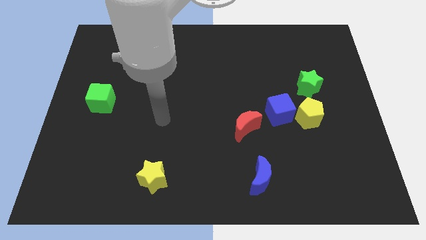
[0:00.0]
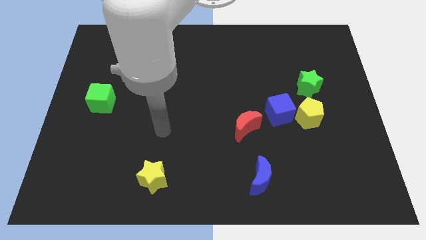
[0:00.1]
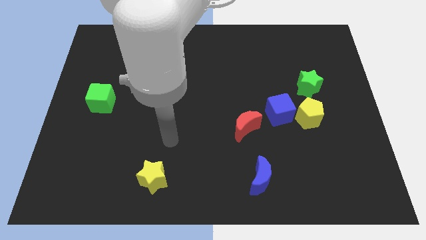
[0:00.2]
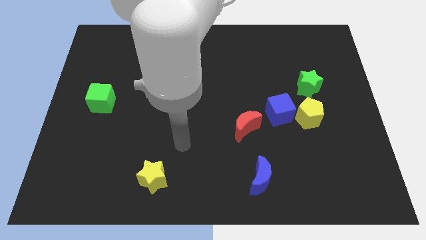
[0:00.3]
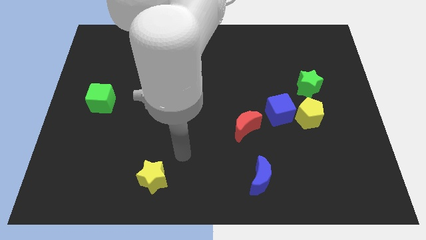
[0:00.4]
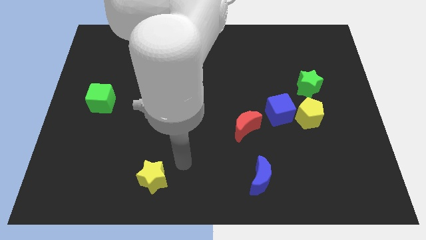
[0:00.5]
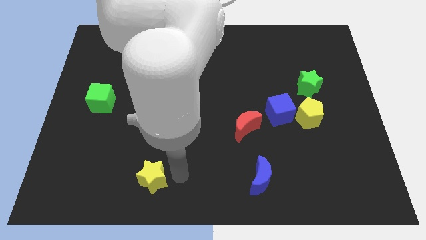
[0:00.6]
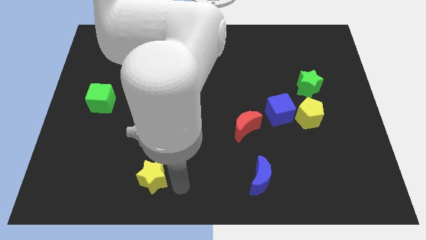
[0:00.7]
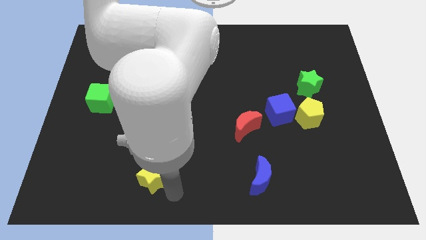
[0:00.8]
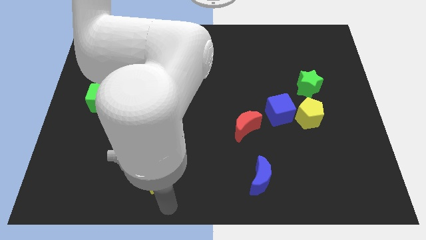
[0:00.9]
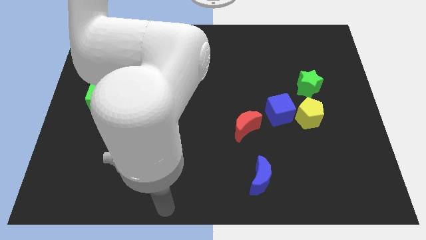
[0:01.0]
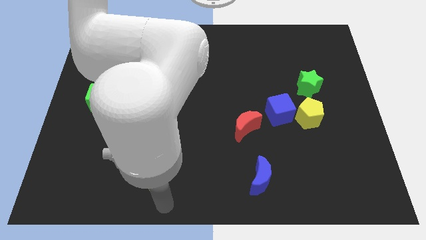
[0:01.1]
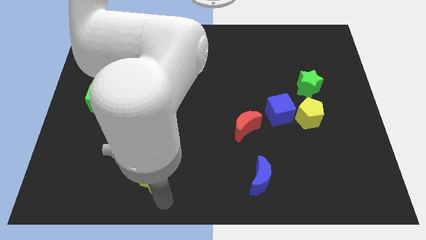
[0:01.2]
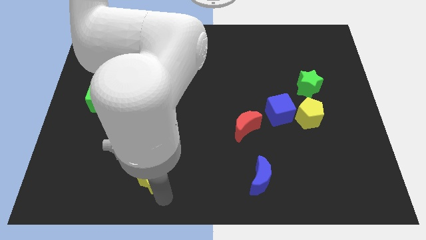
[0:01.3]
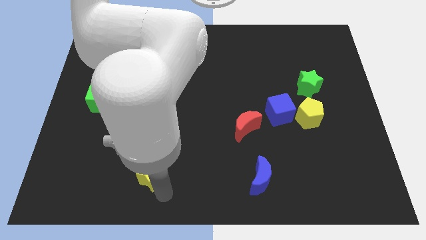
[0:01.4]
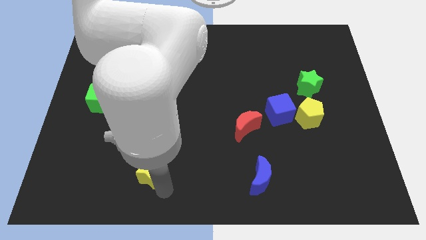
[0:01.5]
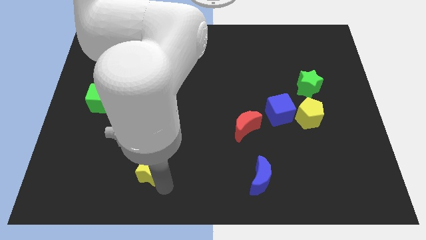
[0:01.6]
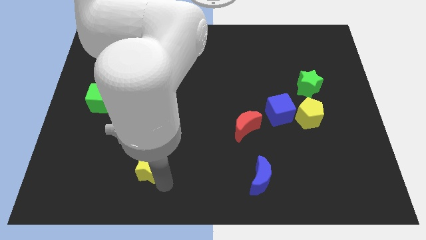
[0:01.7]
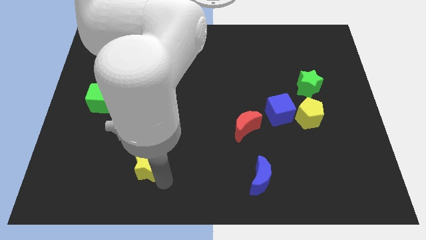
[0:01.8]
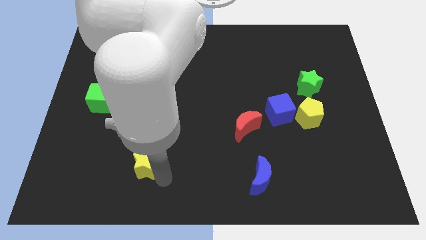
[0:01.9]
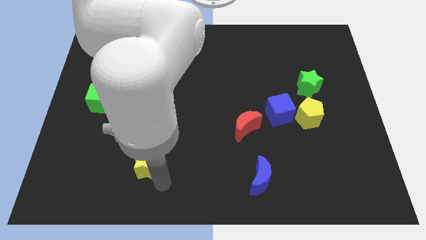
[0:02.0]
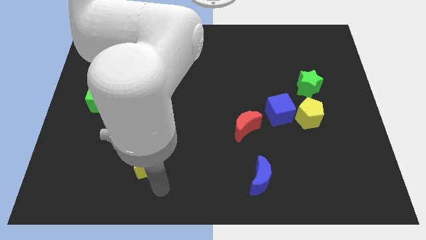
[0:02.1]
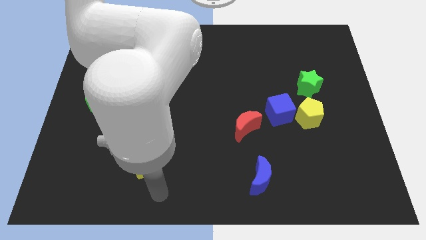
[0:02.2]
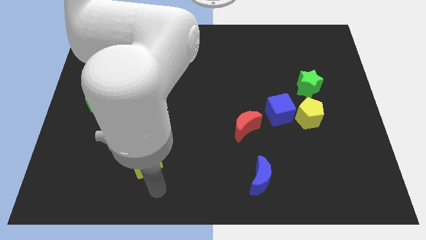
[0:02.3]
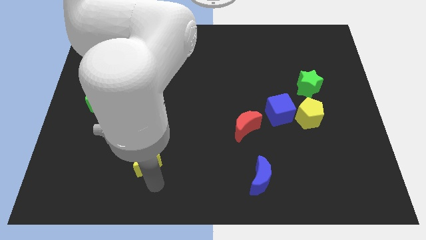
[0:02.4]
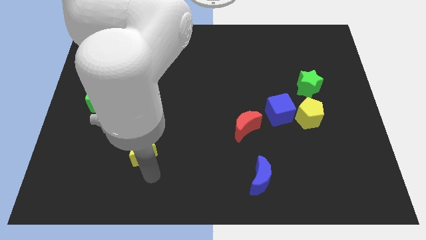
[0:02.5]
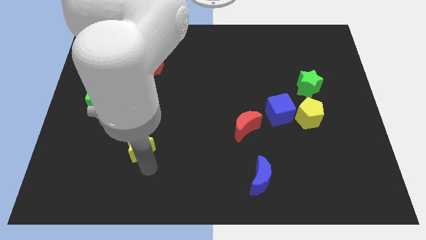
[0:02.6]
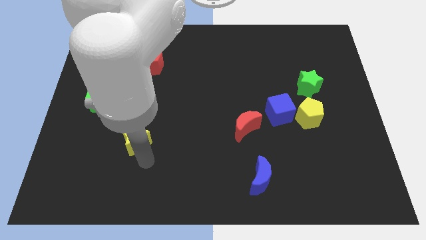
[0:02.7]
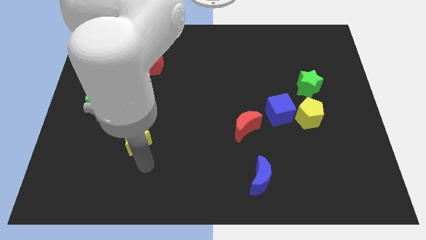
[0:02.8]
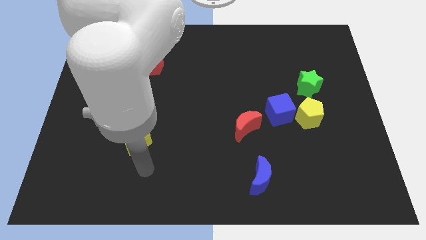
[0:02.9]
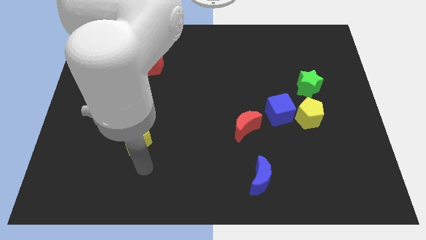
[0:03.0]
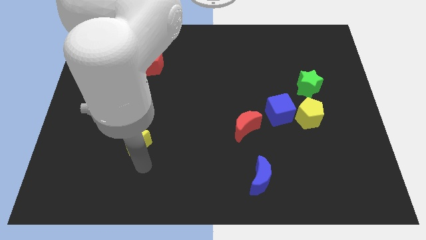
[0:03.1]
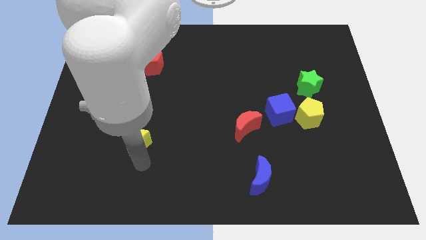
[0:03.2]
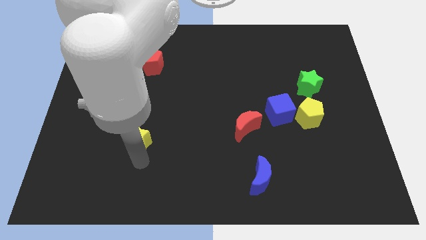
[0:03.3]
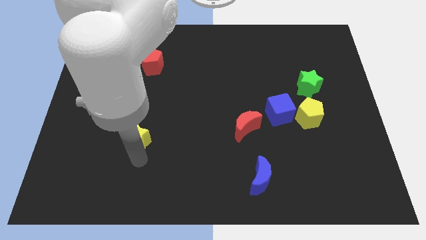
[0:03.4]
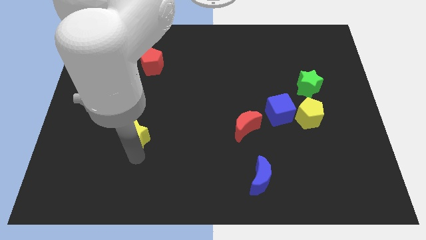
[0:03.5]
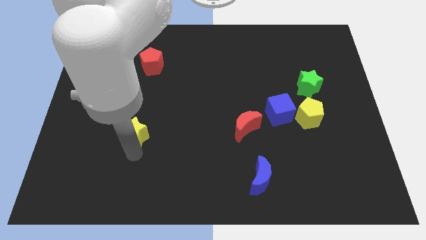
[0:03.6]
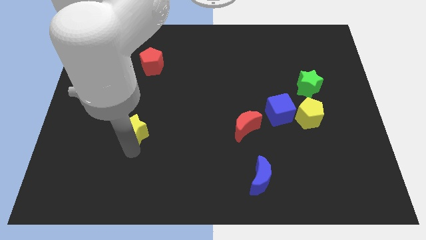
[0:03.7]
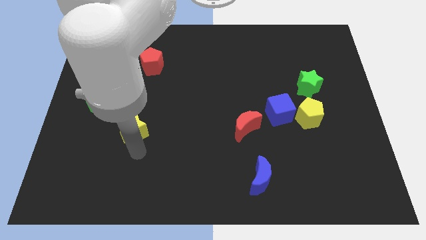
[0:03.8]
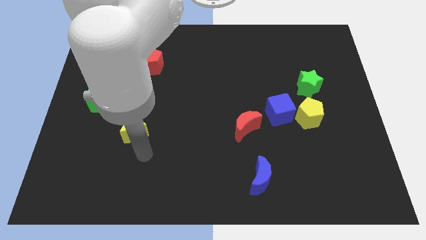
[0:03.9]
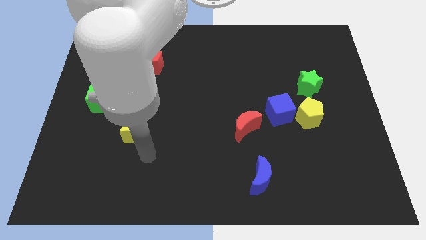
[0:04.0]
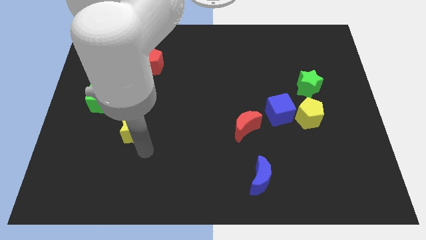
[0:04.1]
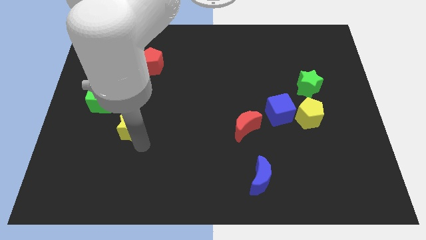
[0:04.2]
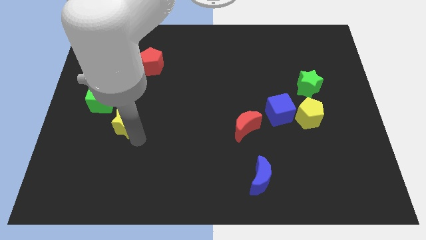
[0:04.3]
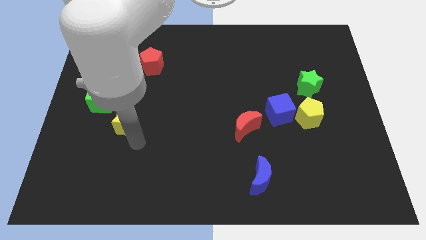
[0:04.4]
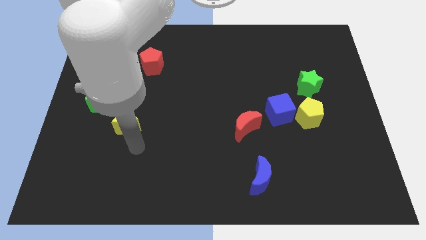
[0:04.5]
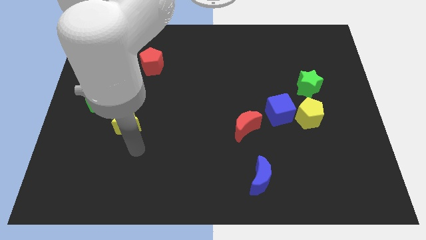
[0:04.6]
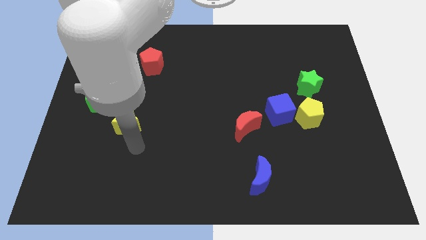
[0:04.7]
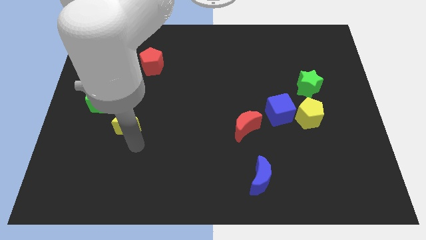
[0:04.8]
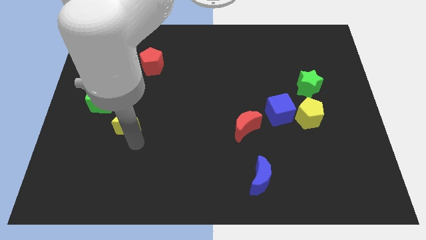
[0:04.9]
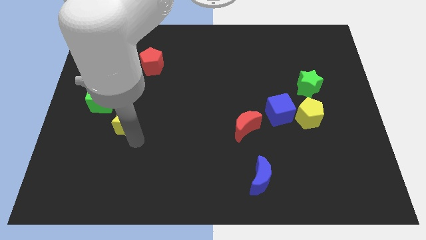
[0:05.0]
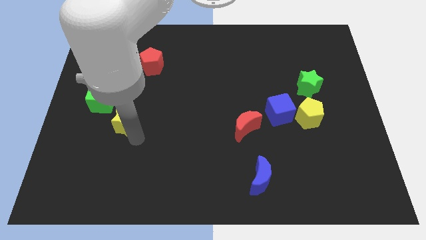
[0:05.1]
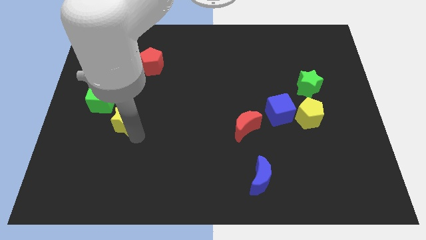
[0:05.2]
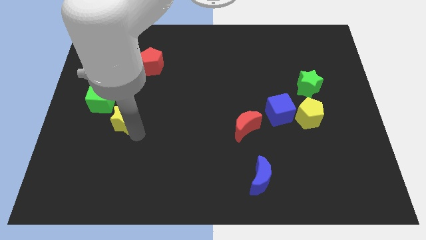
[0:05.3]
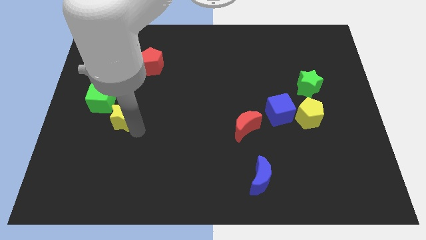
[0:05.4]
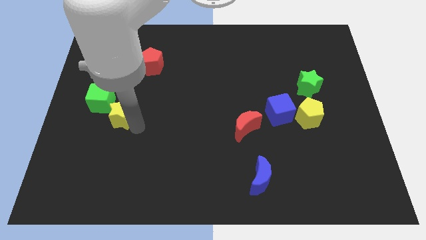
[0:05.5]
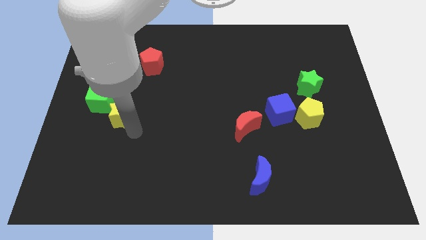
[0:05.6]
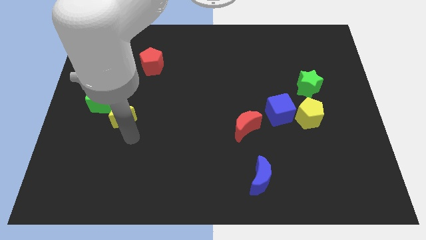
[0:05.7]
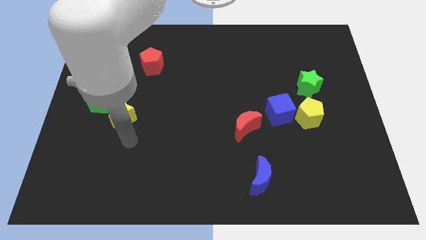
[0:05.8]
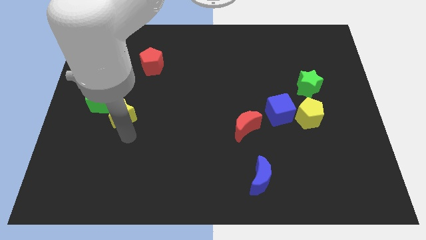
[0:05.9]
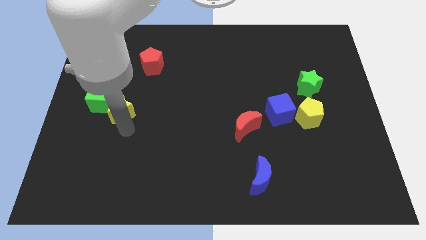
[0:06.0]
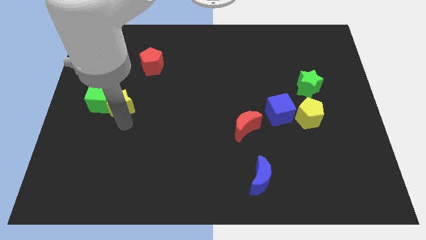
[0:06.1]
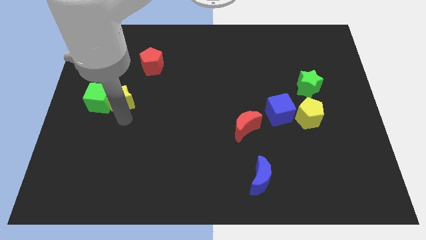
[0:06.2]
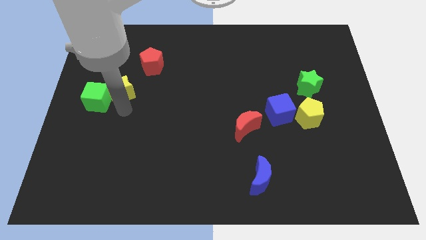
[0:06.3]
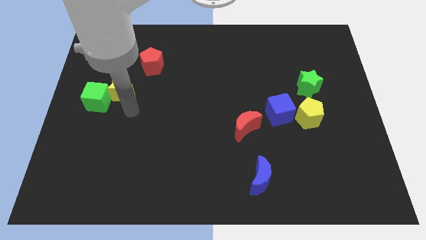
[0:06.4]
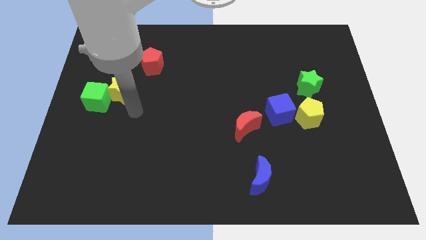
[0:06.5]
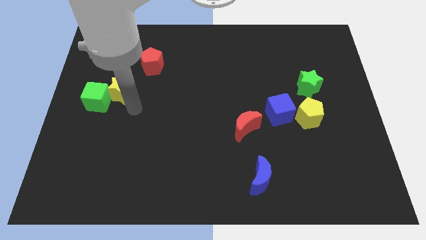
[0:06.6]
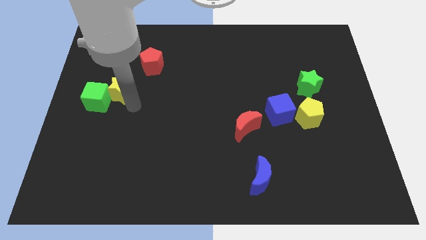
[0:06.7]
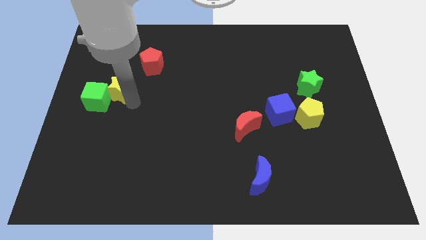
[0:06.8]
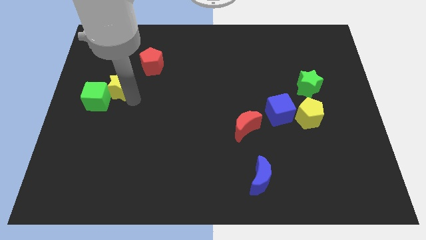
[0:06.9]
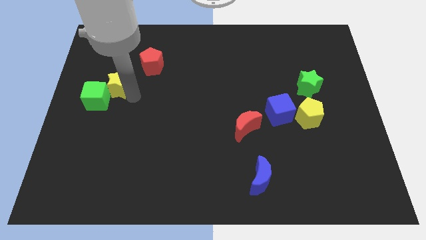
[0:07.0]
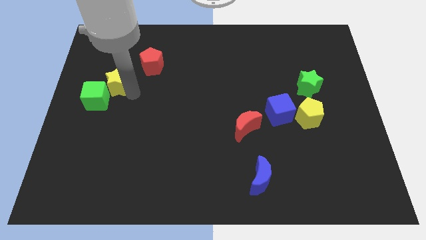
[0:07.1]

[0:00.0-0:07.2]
push the yellow star above the green cube
